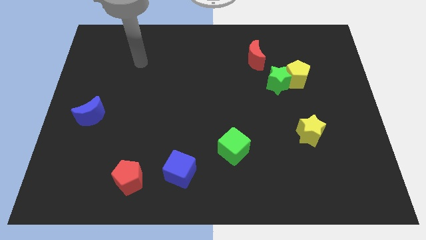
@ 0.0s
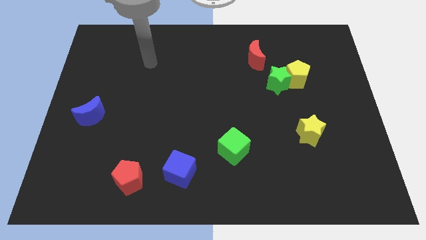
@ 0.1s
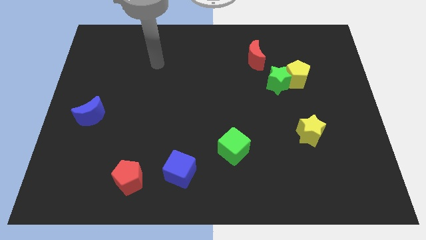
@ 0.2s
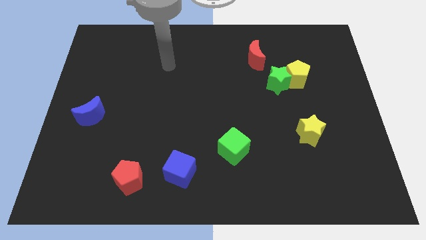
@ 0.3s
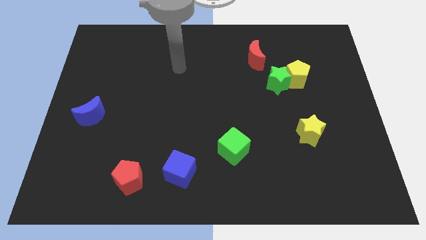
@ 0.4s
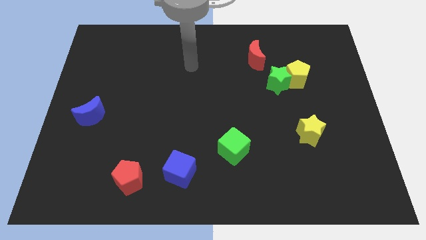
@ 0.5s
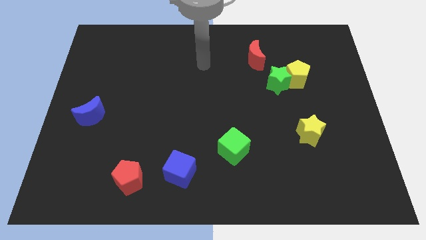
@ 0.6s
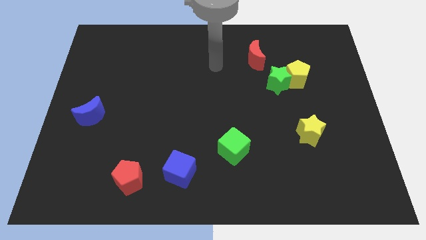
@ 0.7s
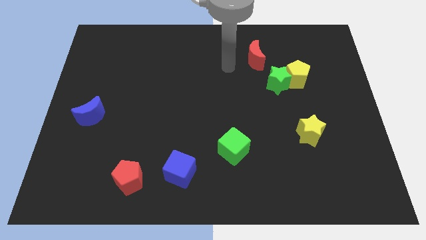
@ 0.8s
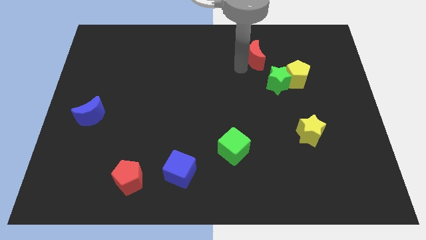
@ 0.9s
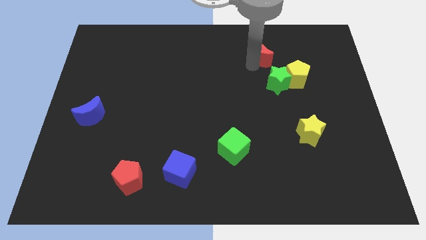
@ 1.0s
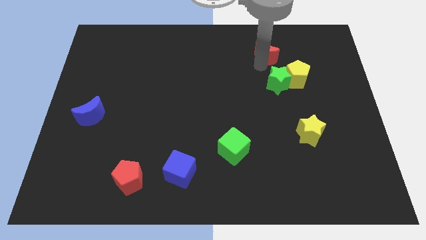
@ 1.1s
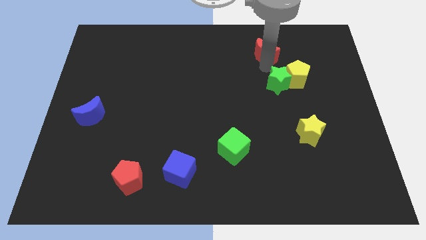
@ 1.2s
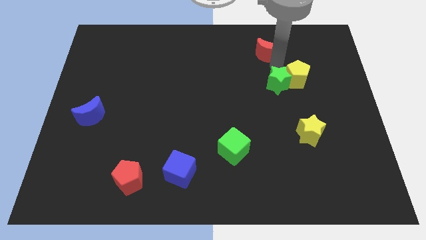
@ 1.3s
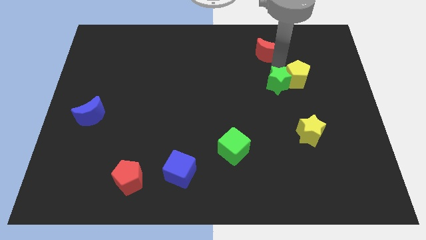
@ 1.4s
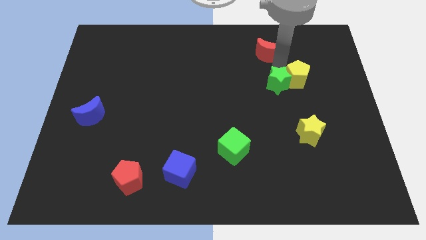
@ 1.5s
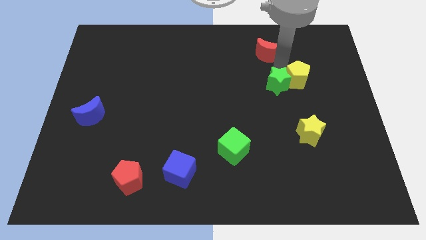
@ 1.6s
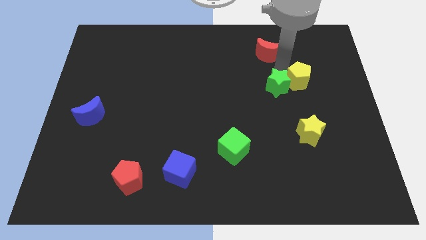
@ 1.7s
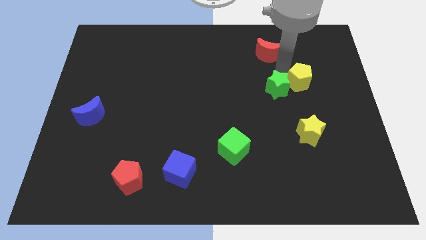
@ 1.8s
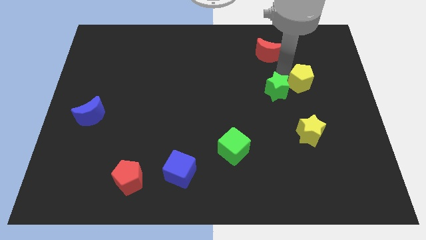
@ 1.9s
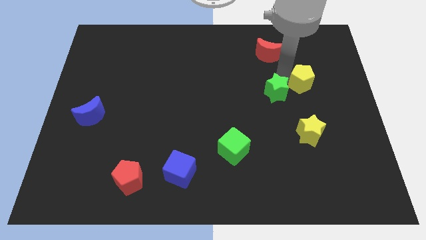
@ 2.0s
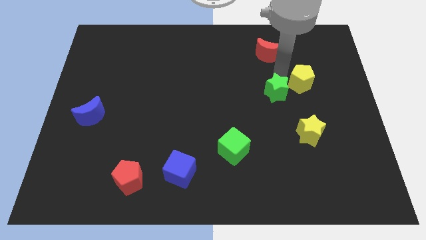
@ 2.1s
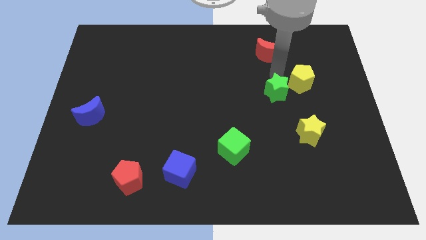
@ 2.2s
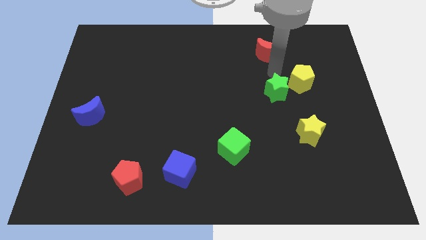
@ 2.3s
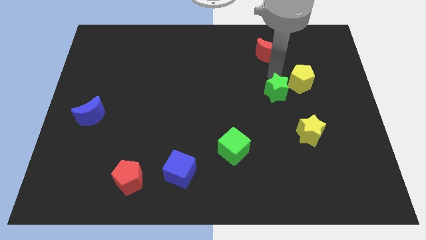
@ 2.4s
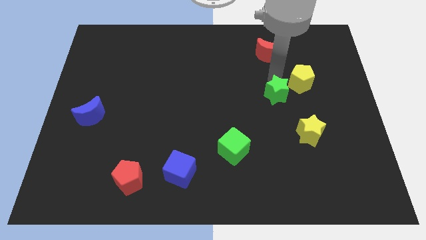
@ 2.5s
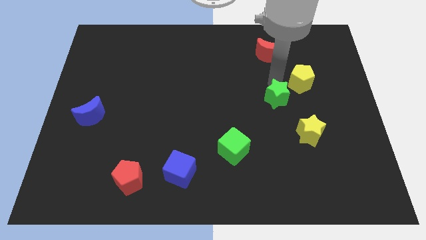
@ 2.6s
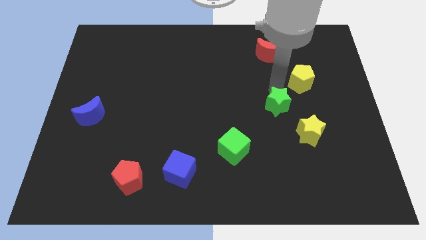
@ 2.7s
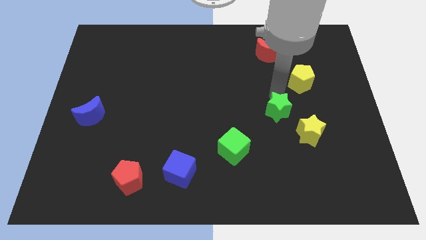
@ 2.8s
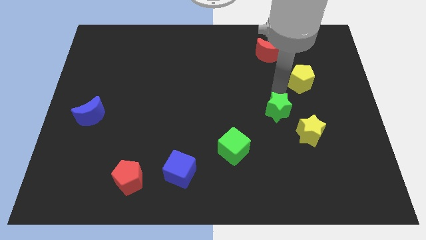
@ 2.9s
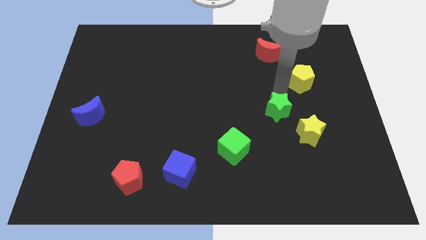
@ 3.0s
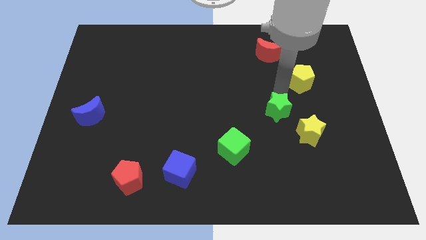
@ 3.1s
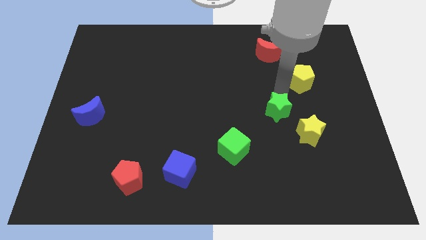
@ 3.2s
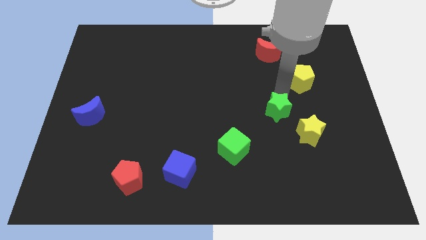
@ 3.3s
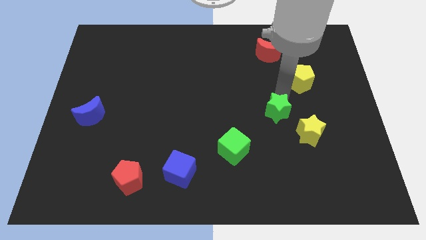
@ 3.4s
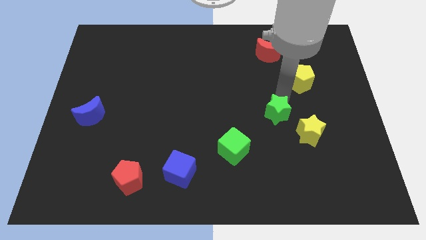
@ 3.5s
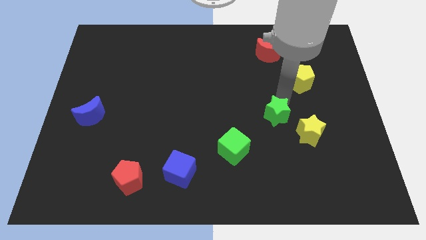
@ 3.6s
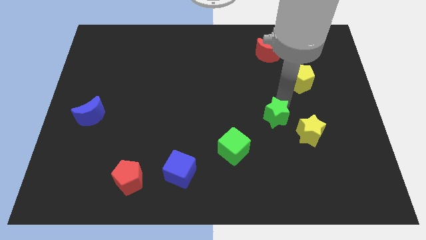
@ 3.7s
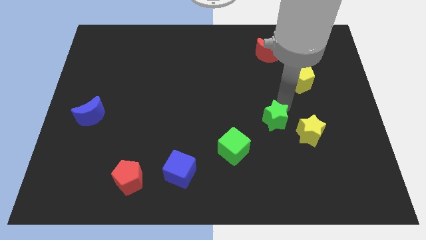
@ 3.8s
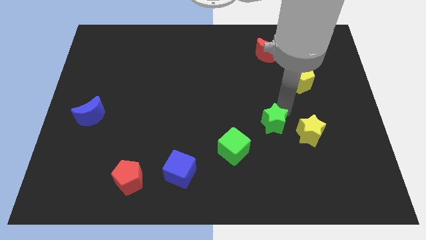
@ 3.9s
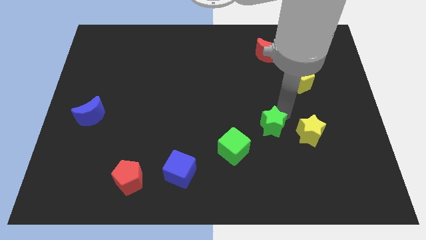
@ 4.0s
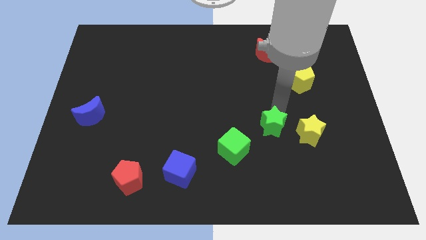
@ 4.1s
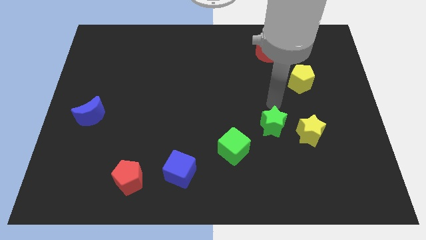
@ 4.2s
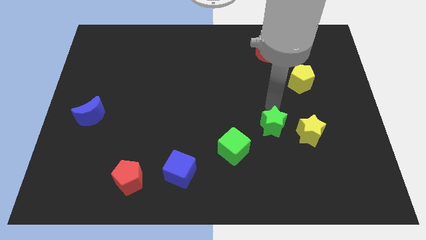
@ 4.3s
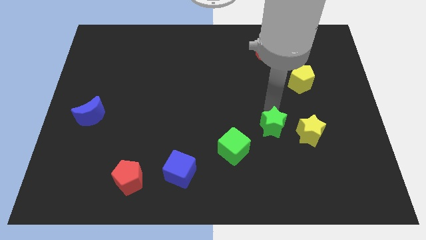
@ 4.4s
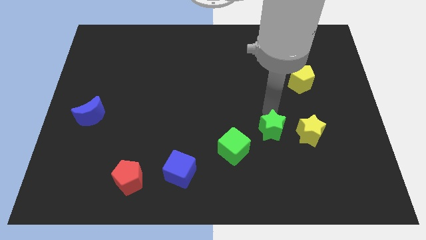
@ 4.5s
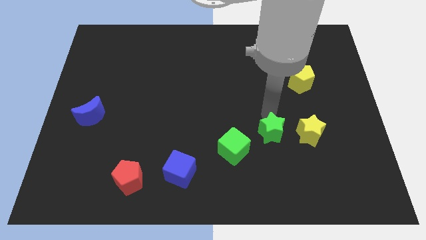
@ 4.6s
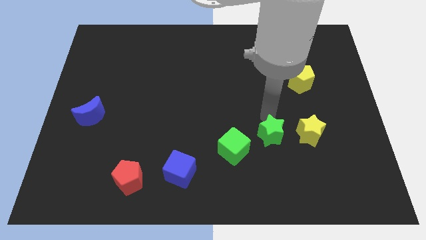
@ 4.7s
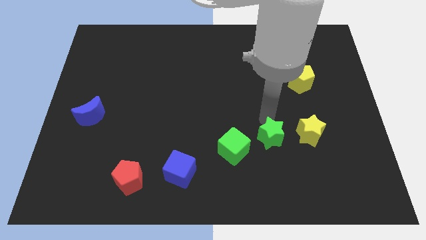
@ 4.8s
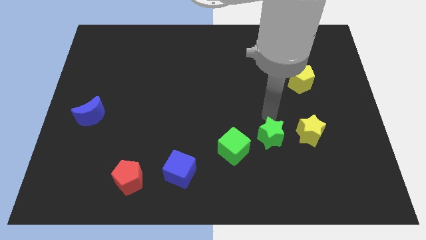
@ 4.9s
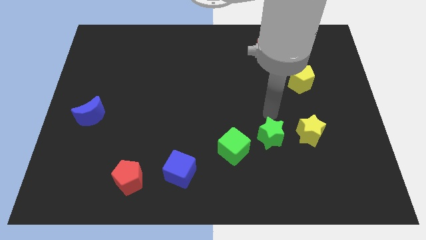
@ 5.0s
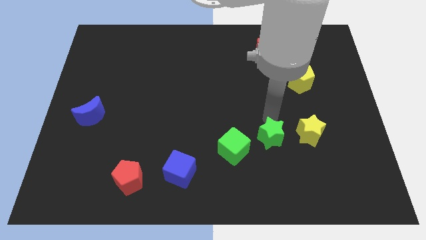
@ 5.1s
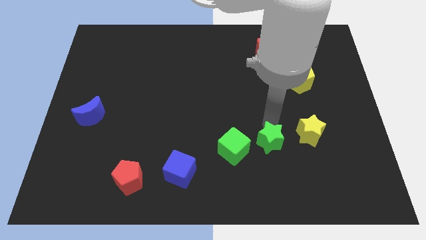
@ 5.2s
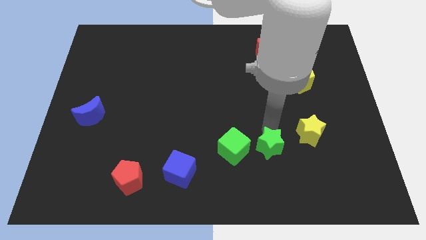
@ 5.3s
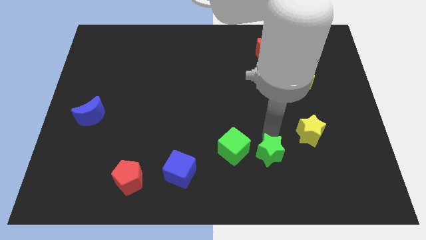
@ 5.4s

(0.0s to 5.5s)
put the green star diagonally down and to the right of the green cube

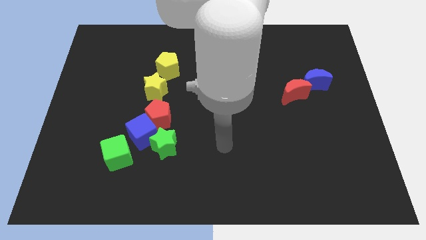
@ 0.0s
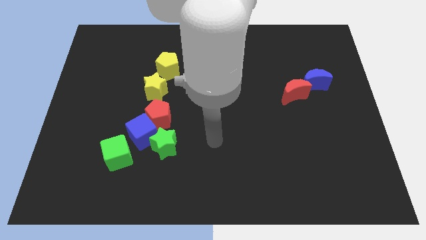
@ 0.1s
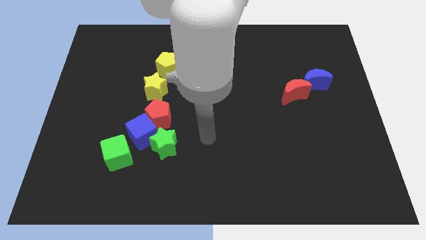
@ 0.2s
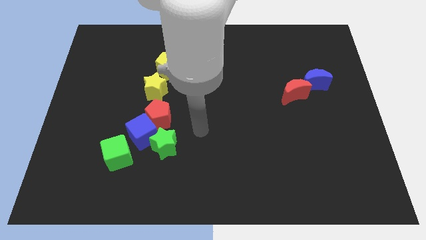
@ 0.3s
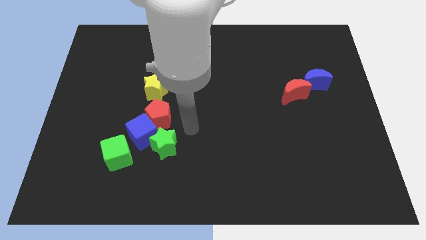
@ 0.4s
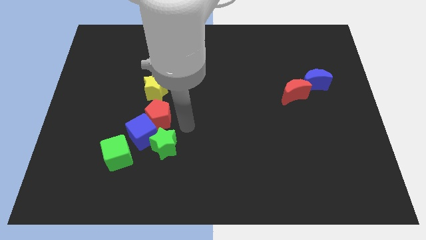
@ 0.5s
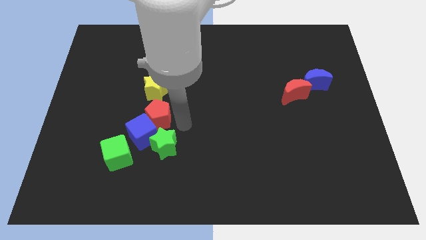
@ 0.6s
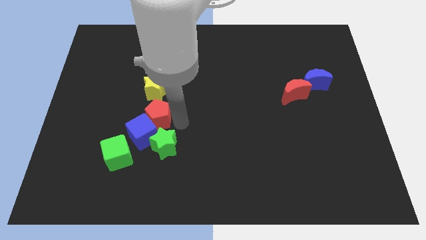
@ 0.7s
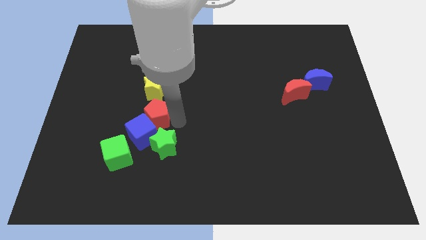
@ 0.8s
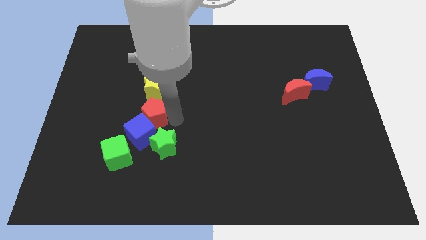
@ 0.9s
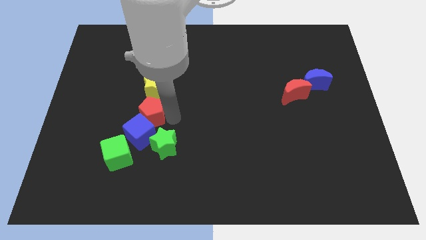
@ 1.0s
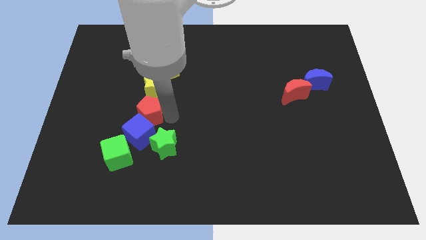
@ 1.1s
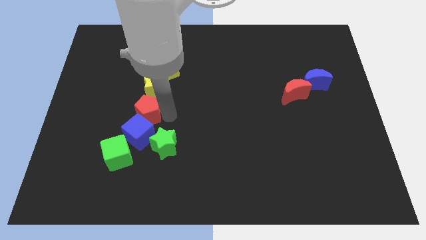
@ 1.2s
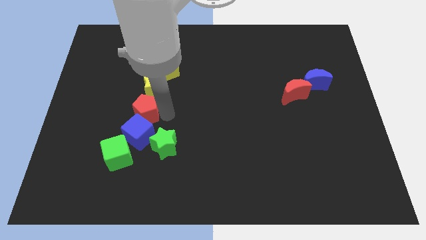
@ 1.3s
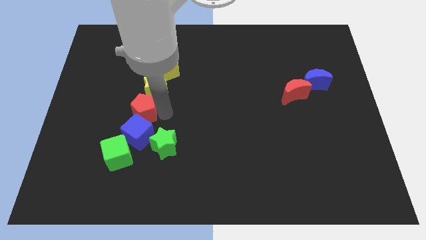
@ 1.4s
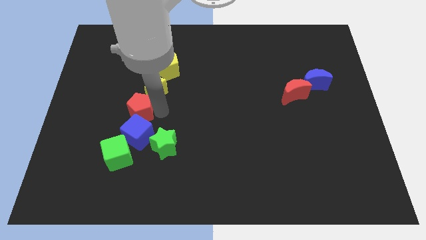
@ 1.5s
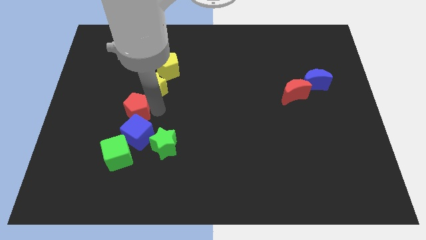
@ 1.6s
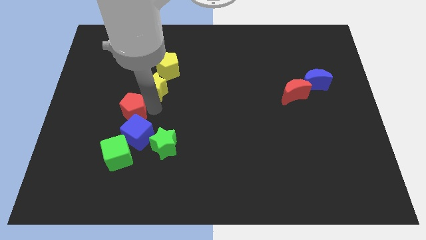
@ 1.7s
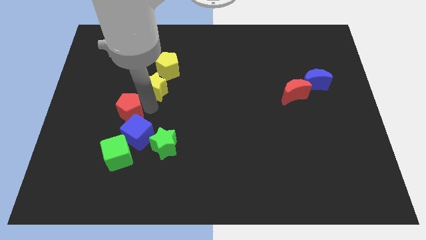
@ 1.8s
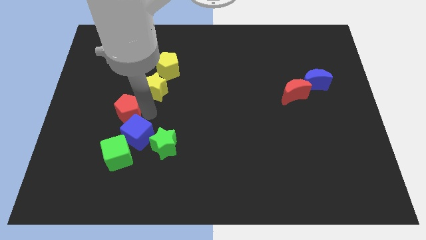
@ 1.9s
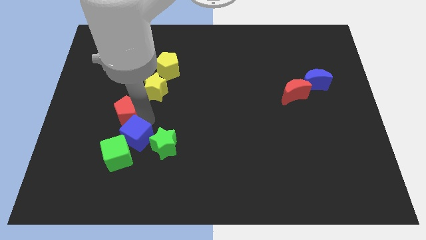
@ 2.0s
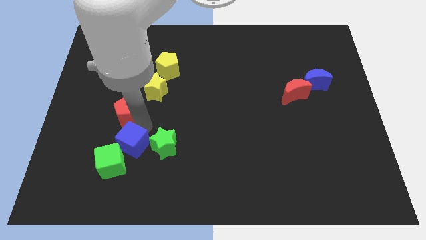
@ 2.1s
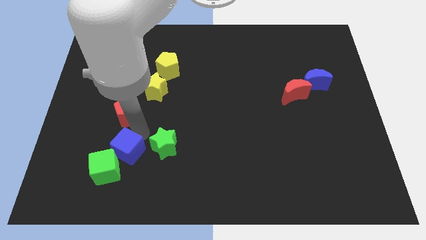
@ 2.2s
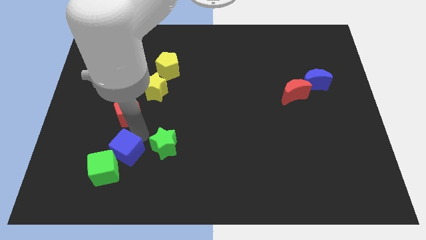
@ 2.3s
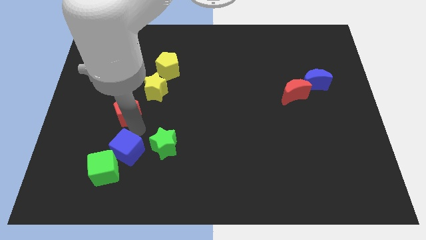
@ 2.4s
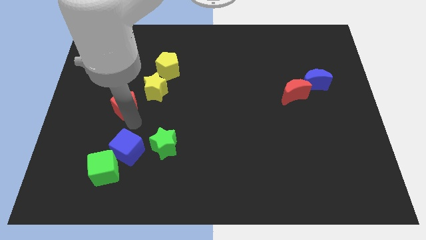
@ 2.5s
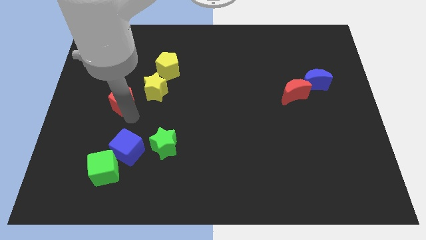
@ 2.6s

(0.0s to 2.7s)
slide the red pentagon to the left of the yellow star
